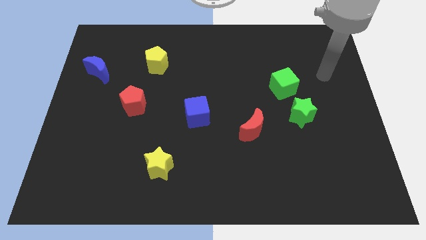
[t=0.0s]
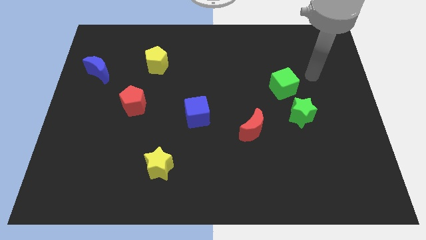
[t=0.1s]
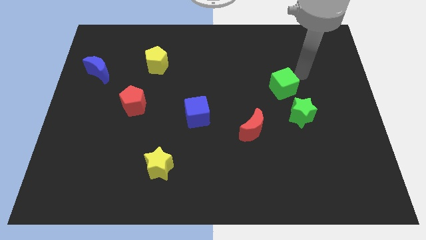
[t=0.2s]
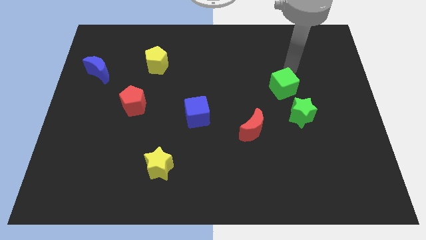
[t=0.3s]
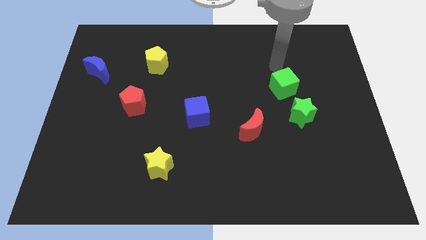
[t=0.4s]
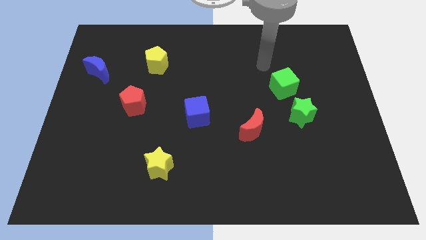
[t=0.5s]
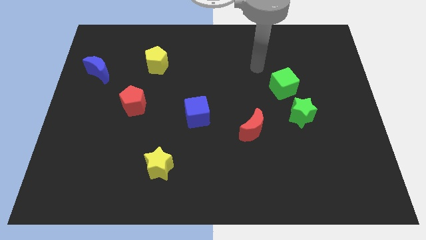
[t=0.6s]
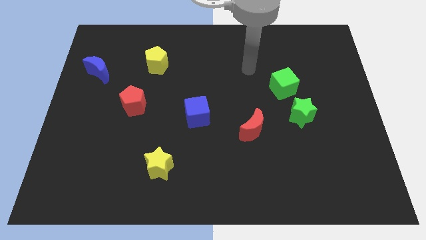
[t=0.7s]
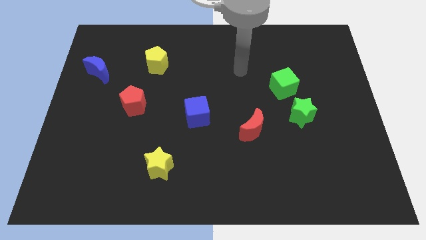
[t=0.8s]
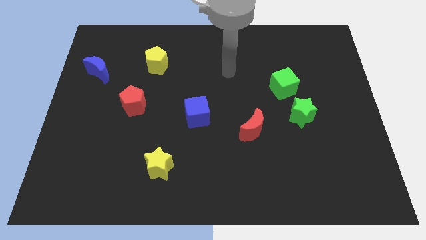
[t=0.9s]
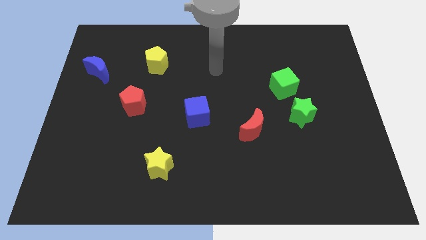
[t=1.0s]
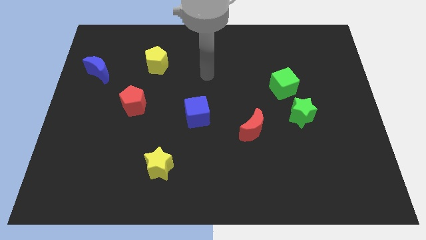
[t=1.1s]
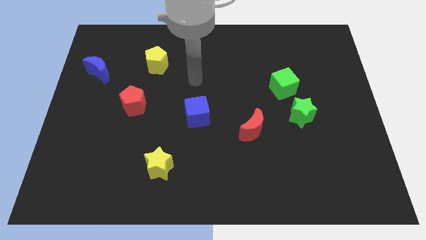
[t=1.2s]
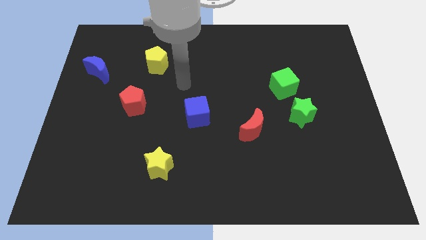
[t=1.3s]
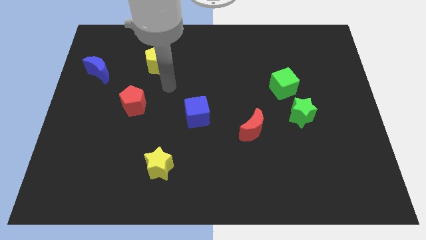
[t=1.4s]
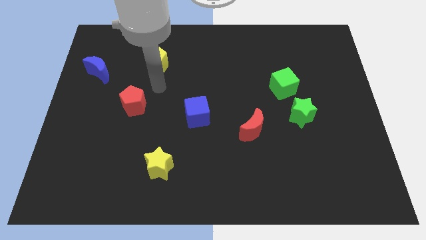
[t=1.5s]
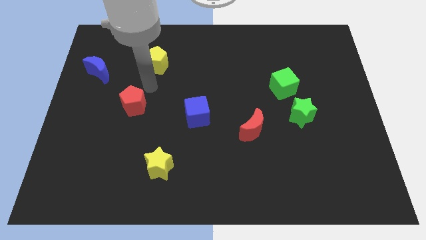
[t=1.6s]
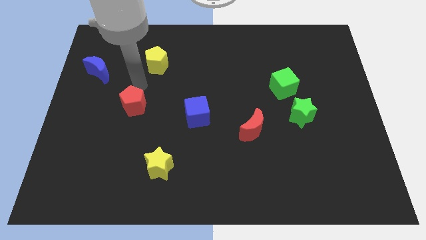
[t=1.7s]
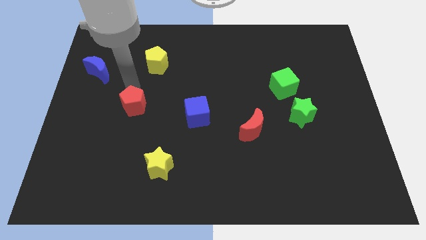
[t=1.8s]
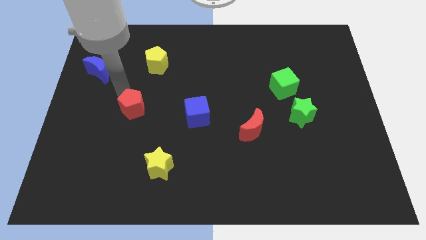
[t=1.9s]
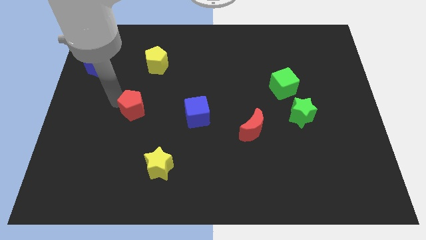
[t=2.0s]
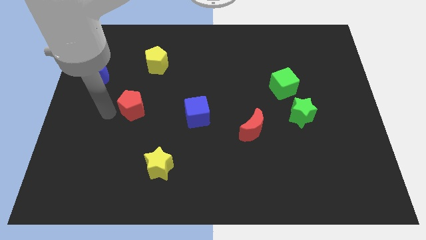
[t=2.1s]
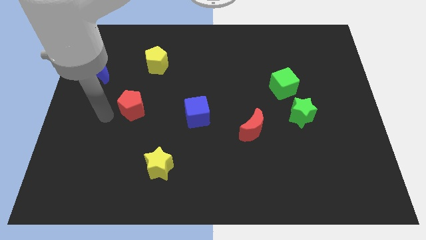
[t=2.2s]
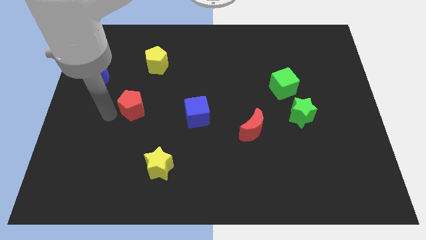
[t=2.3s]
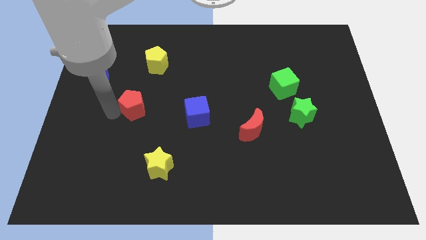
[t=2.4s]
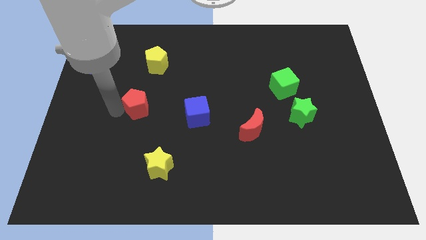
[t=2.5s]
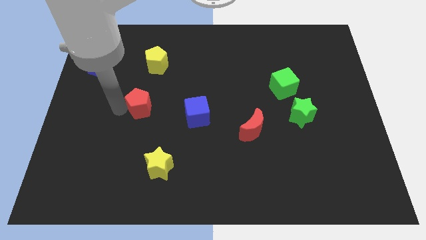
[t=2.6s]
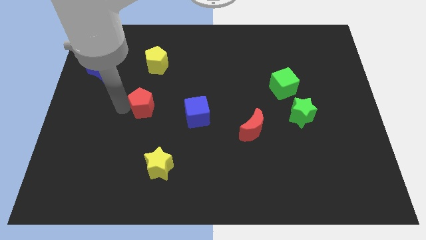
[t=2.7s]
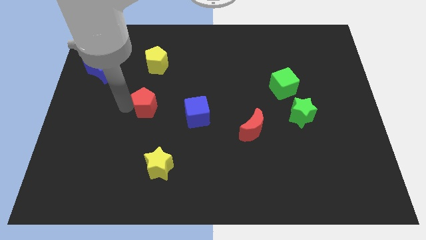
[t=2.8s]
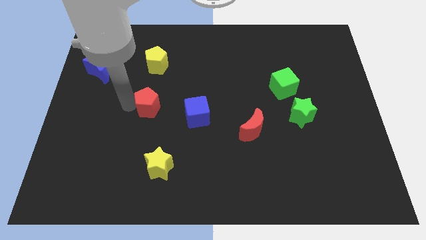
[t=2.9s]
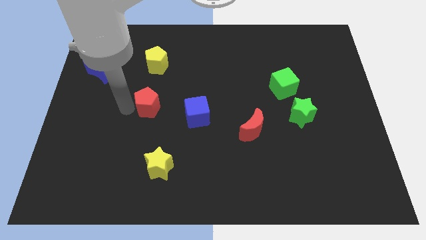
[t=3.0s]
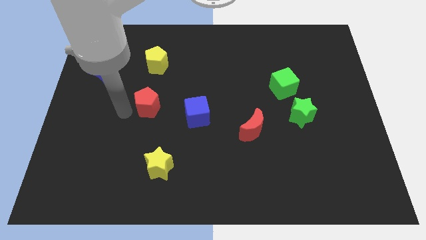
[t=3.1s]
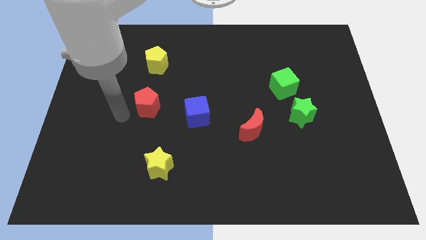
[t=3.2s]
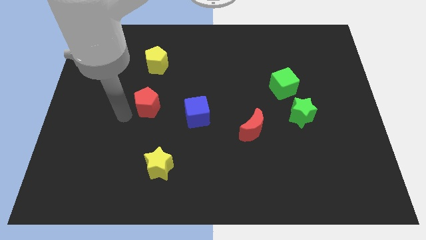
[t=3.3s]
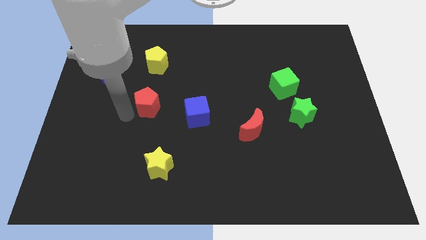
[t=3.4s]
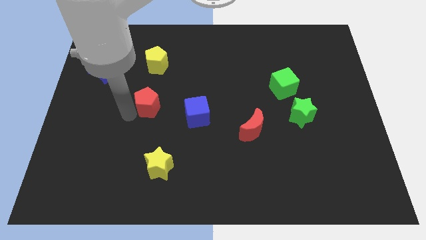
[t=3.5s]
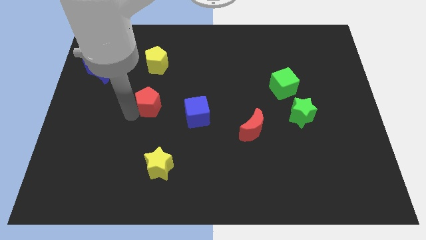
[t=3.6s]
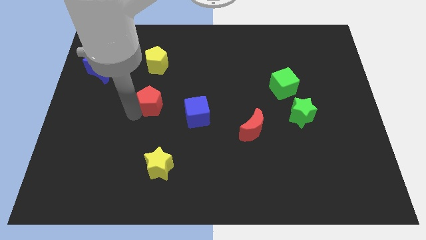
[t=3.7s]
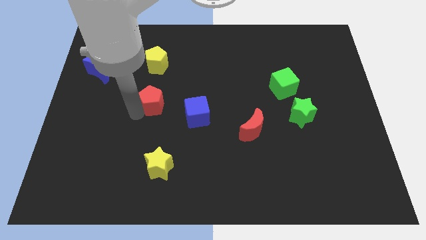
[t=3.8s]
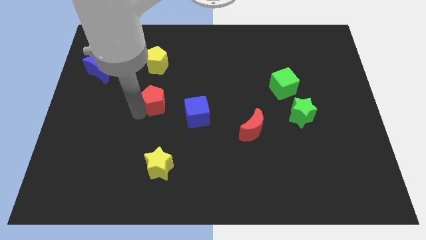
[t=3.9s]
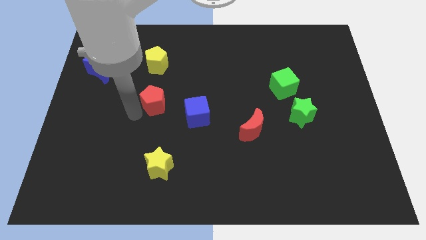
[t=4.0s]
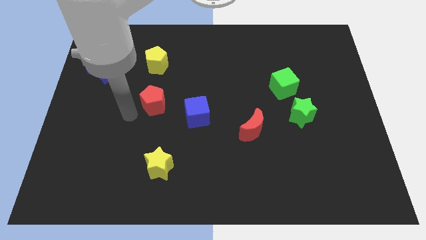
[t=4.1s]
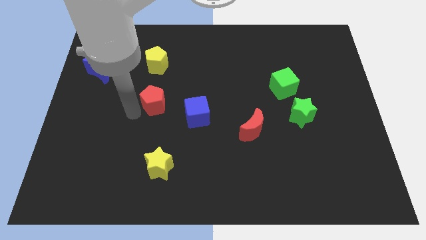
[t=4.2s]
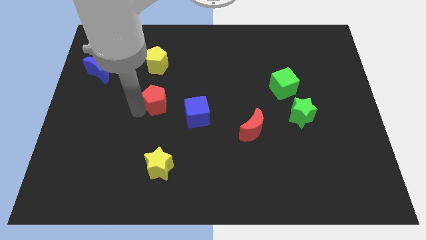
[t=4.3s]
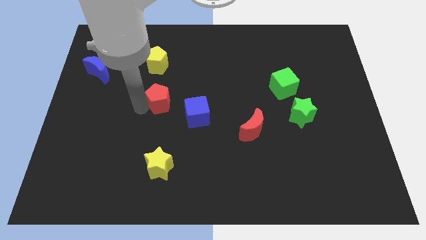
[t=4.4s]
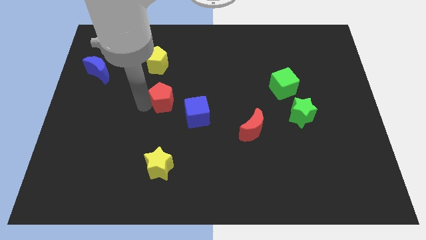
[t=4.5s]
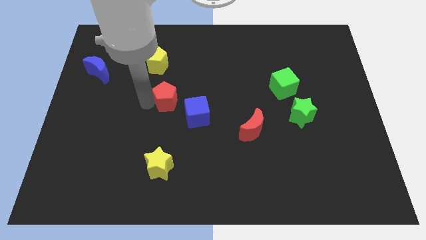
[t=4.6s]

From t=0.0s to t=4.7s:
move the red pentagon to the right a little

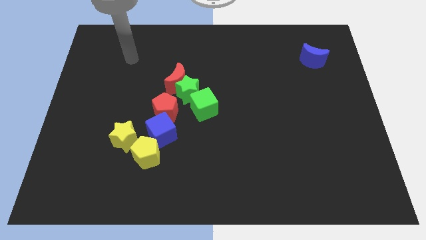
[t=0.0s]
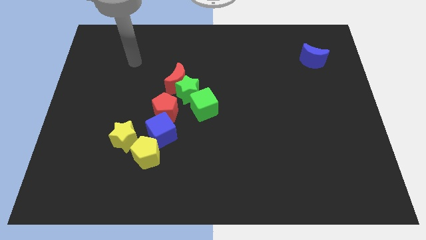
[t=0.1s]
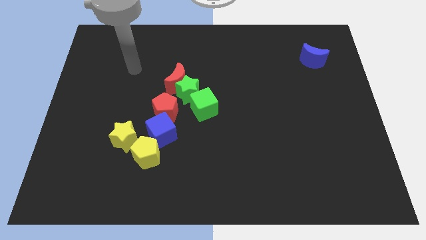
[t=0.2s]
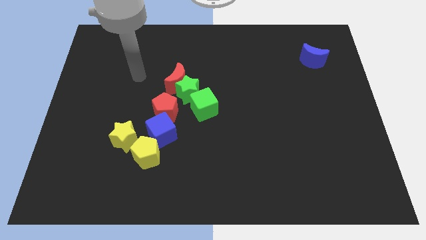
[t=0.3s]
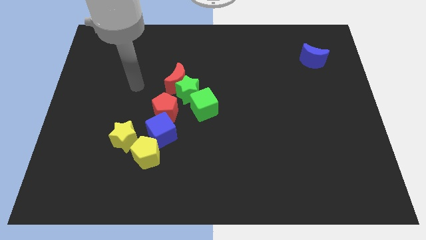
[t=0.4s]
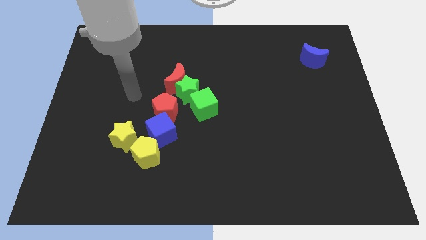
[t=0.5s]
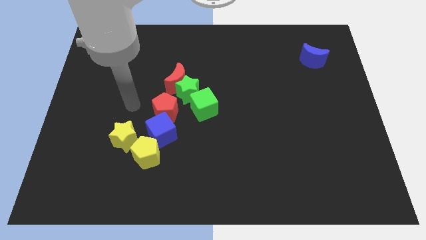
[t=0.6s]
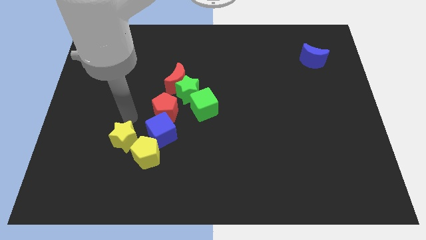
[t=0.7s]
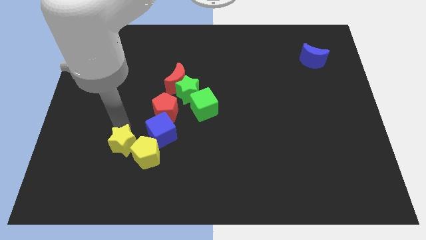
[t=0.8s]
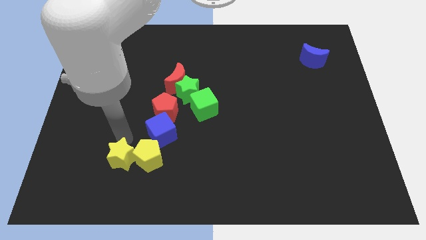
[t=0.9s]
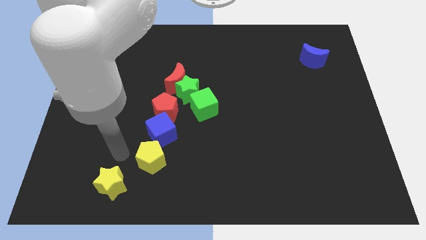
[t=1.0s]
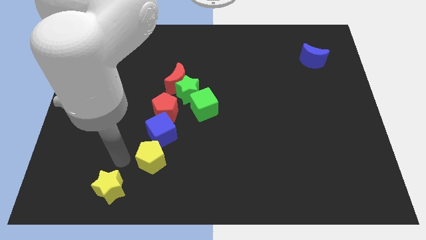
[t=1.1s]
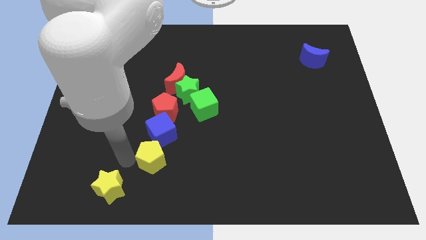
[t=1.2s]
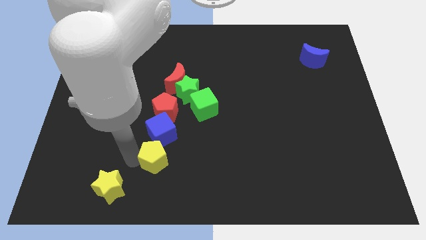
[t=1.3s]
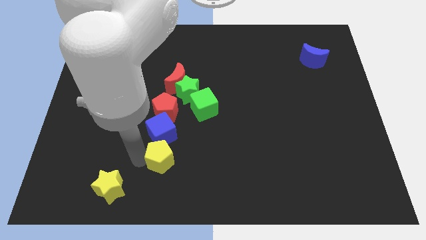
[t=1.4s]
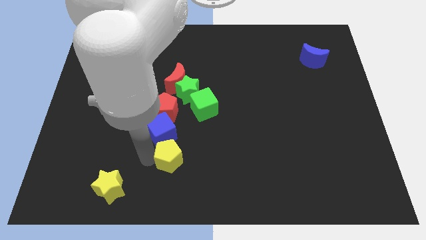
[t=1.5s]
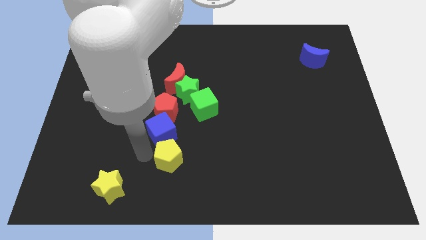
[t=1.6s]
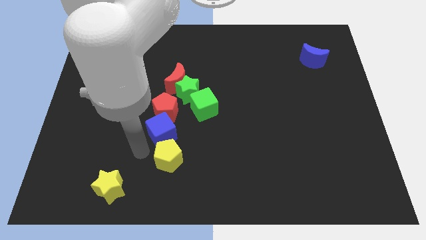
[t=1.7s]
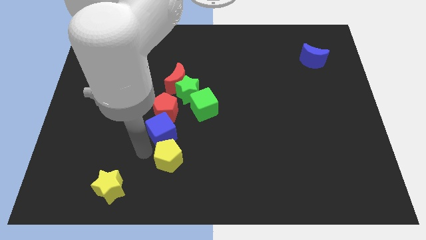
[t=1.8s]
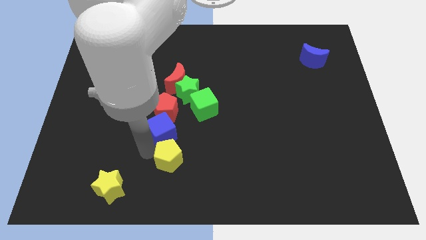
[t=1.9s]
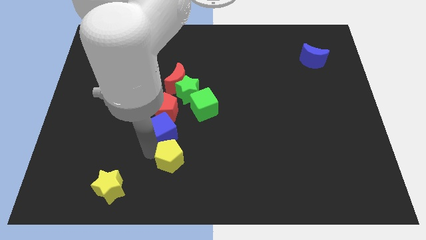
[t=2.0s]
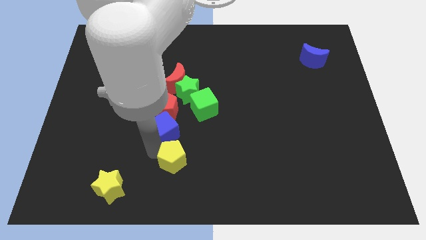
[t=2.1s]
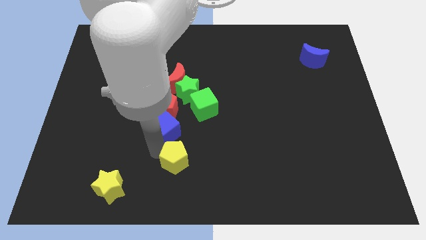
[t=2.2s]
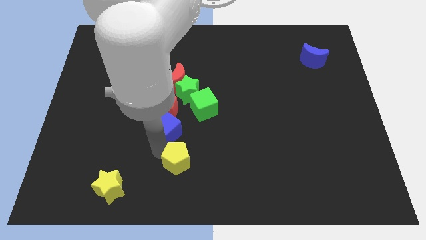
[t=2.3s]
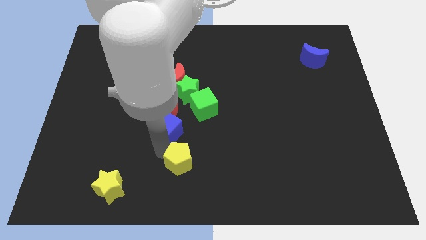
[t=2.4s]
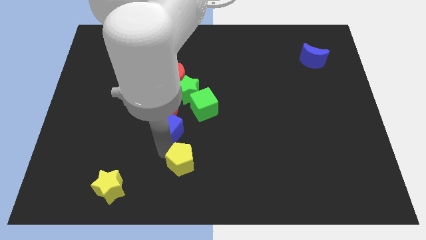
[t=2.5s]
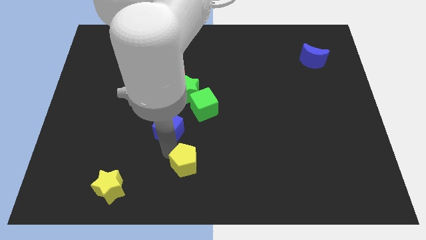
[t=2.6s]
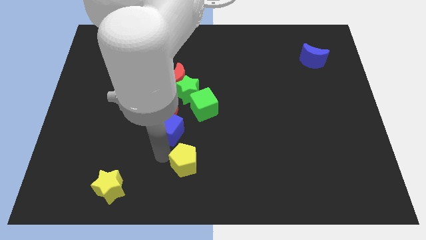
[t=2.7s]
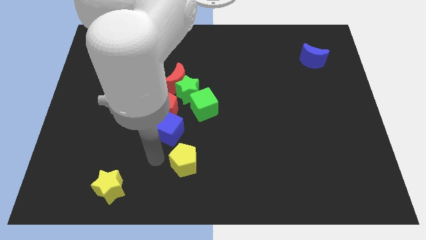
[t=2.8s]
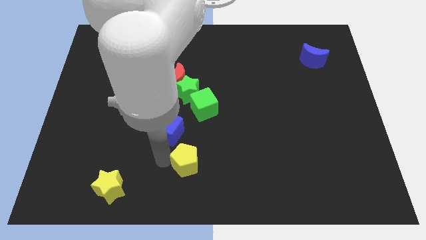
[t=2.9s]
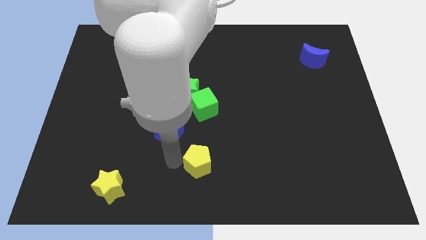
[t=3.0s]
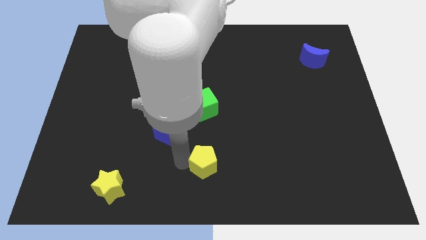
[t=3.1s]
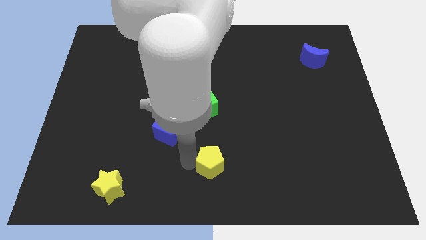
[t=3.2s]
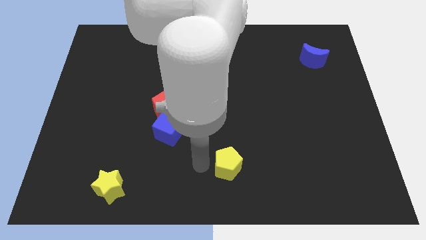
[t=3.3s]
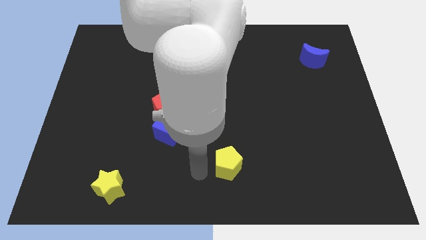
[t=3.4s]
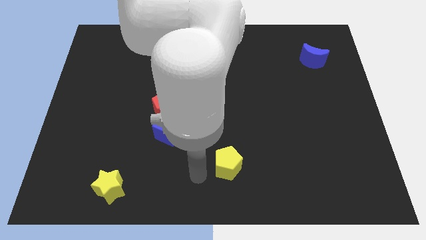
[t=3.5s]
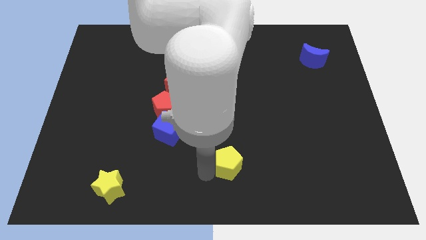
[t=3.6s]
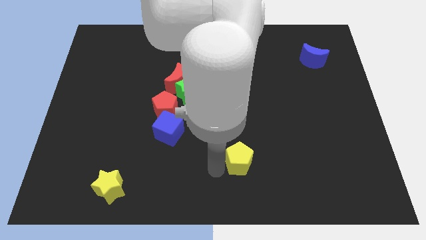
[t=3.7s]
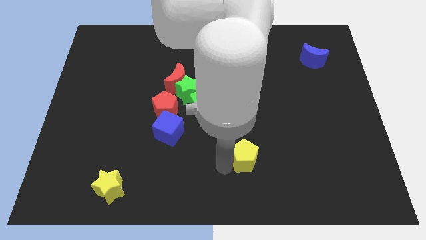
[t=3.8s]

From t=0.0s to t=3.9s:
move the yellow pentagon right
